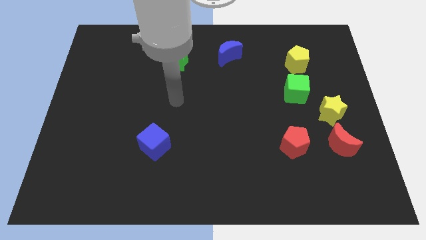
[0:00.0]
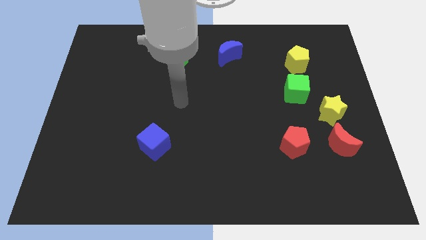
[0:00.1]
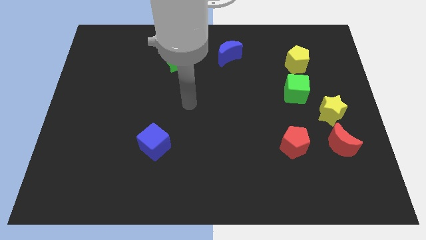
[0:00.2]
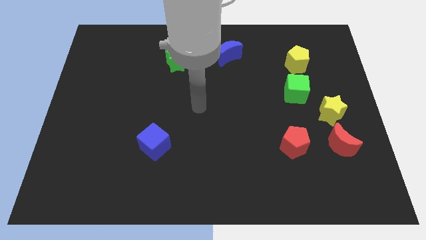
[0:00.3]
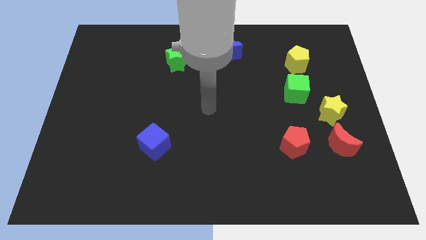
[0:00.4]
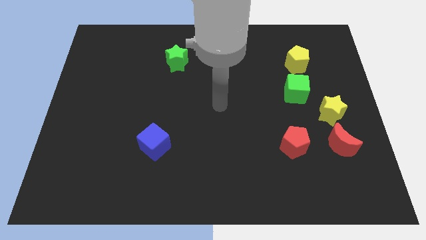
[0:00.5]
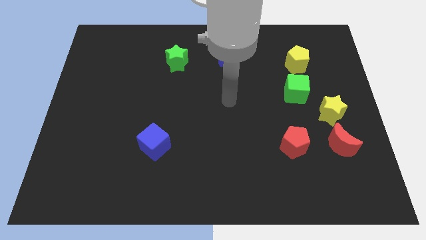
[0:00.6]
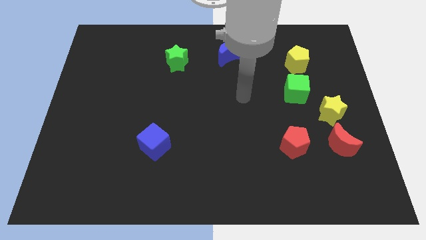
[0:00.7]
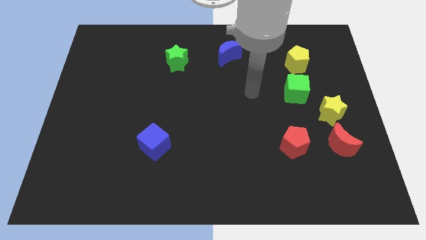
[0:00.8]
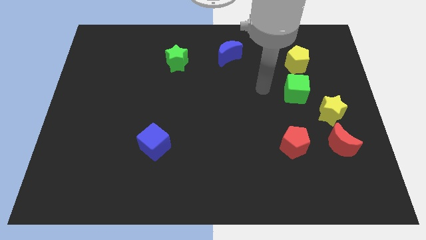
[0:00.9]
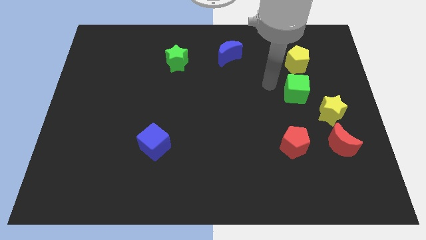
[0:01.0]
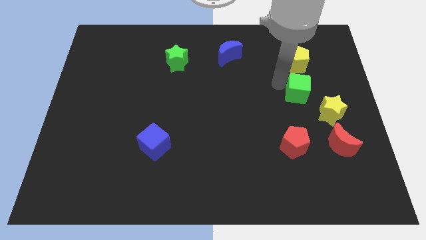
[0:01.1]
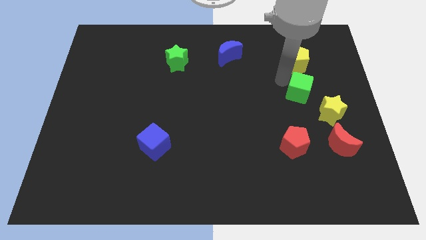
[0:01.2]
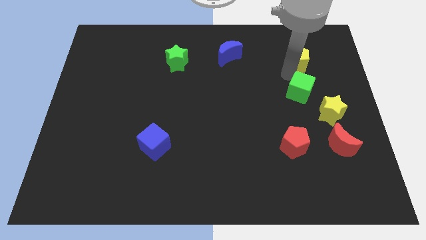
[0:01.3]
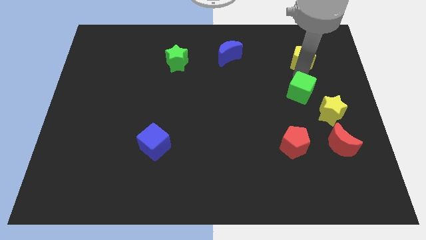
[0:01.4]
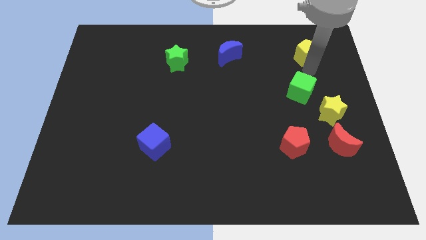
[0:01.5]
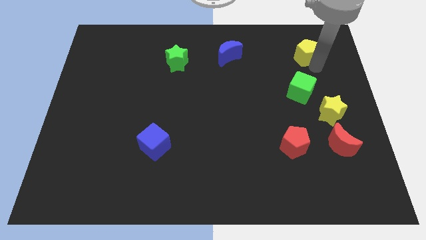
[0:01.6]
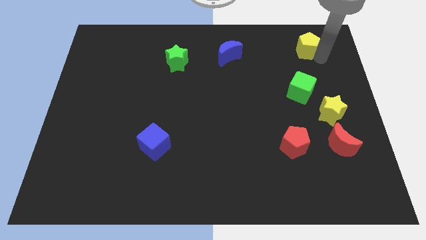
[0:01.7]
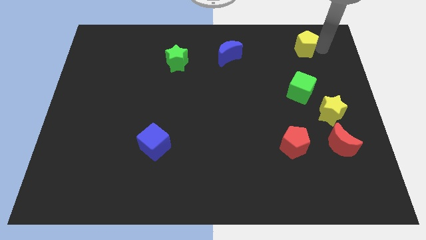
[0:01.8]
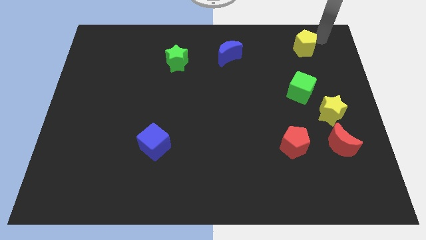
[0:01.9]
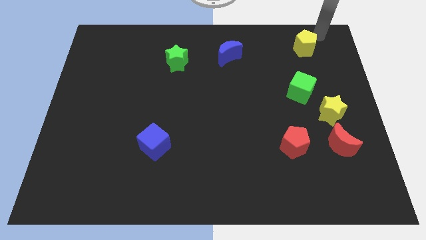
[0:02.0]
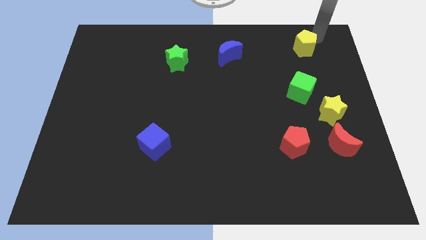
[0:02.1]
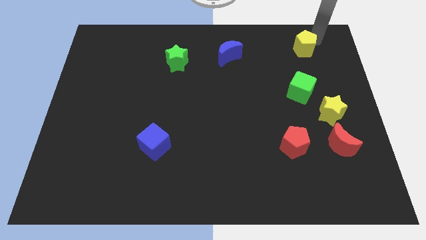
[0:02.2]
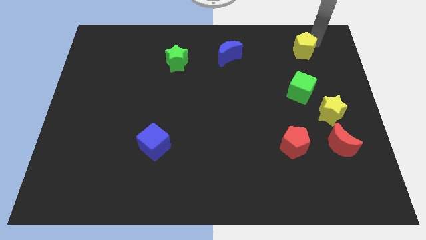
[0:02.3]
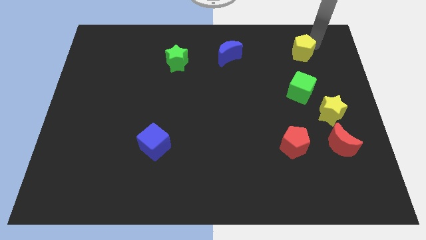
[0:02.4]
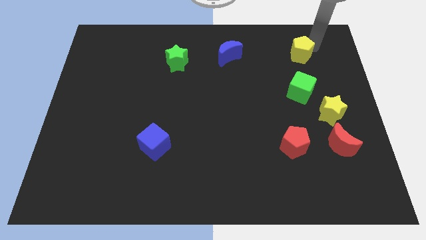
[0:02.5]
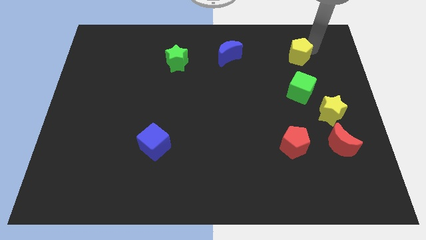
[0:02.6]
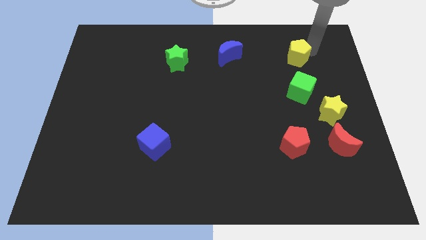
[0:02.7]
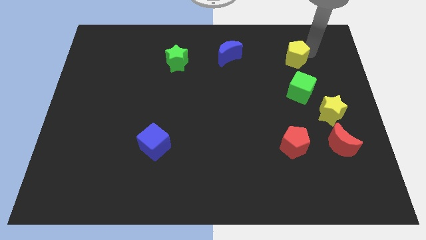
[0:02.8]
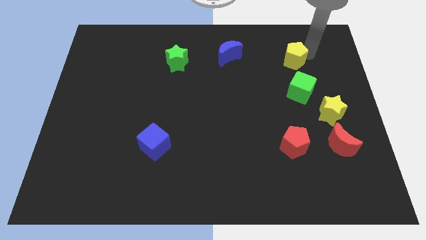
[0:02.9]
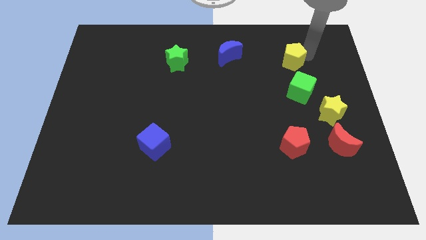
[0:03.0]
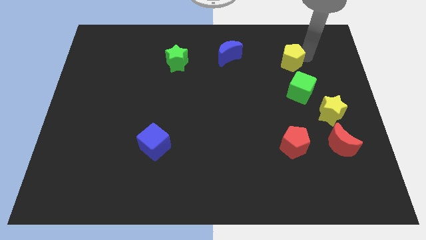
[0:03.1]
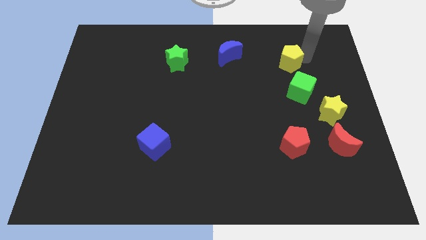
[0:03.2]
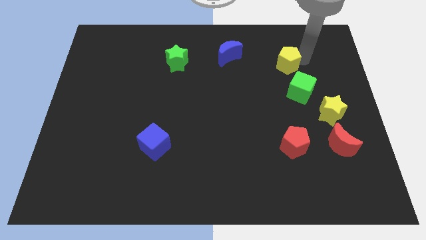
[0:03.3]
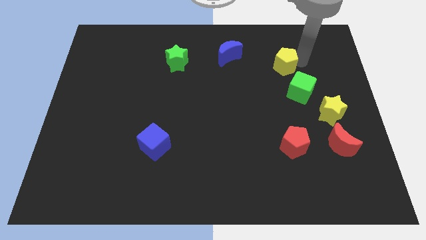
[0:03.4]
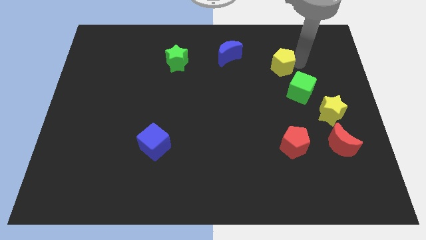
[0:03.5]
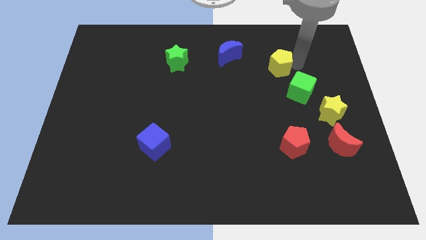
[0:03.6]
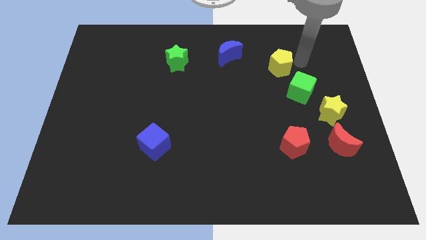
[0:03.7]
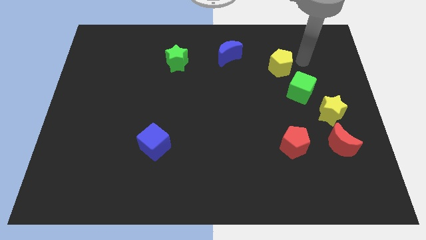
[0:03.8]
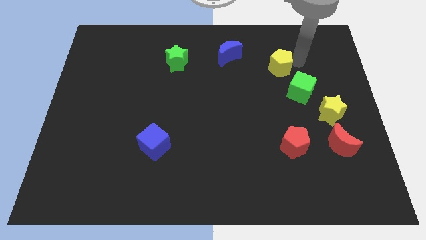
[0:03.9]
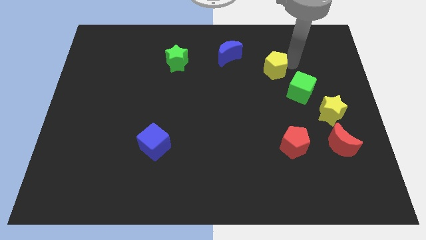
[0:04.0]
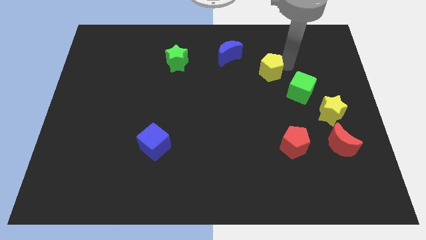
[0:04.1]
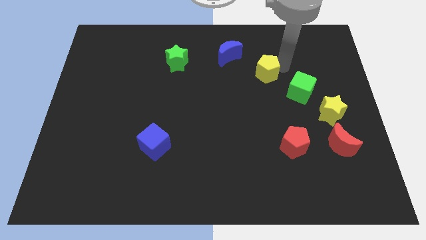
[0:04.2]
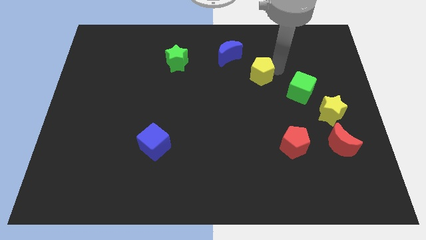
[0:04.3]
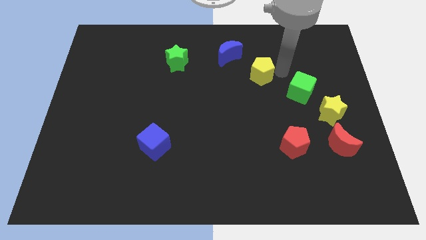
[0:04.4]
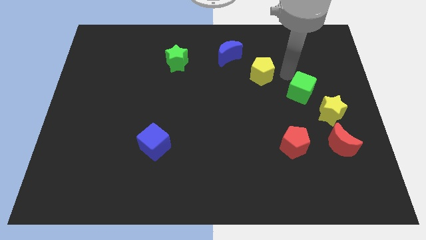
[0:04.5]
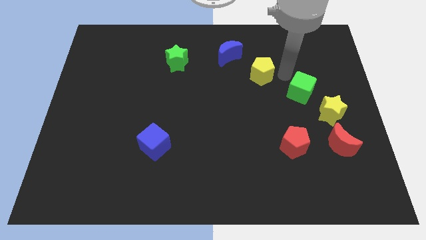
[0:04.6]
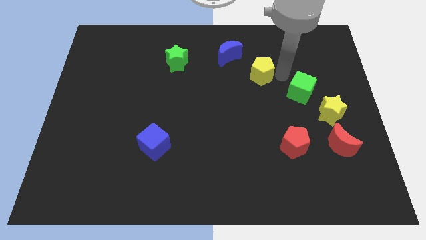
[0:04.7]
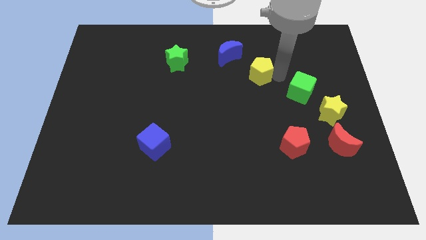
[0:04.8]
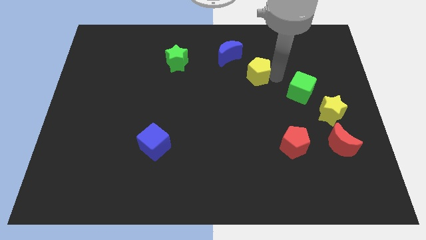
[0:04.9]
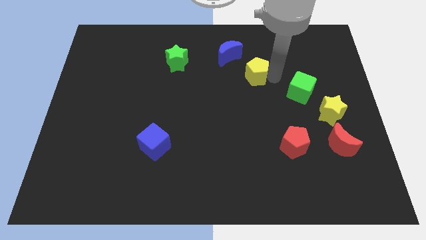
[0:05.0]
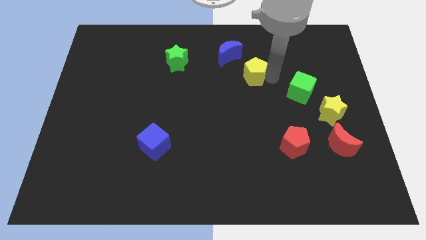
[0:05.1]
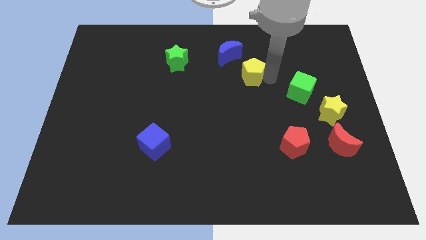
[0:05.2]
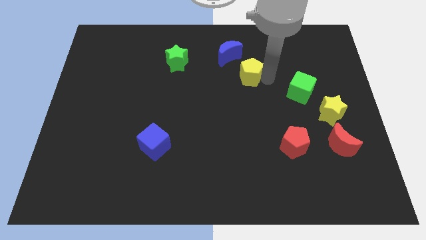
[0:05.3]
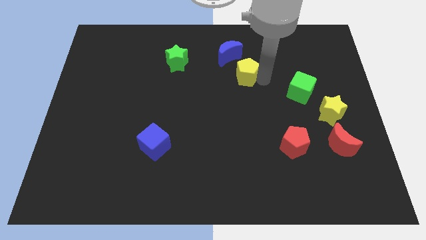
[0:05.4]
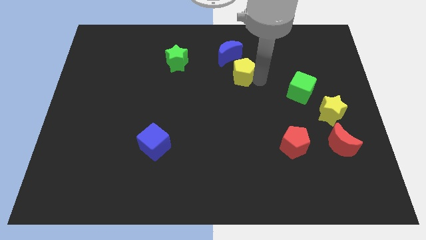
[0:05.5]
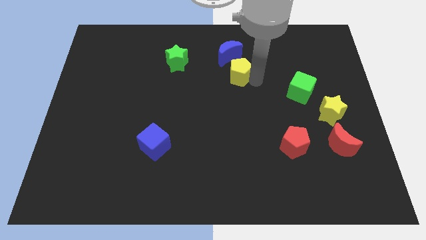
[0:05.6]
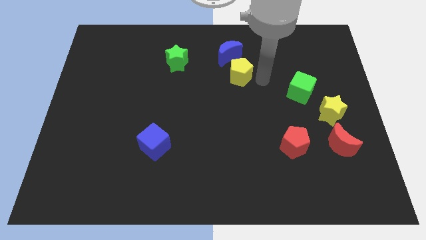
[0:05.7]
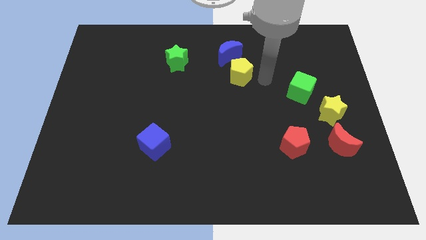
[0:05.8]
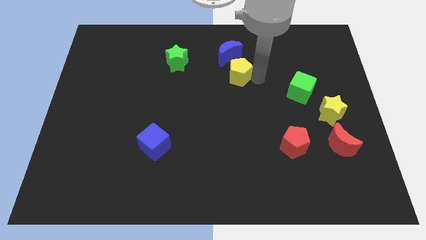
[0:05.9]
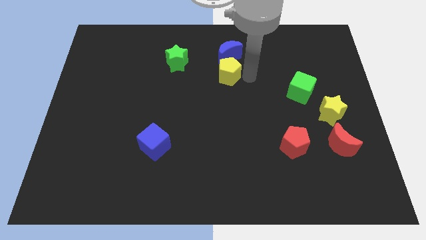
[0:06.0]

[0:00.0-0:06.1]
slide the yellow pentagon to the bottom left side of the blue moon

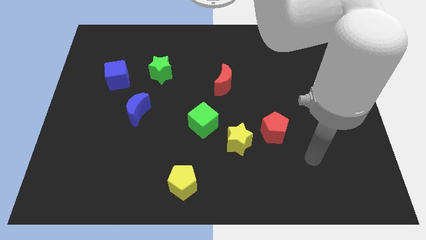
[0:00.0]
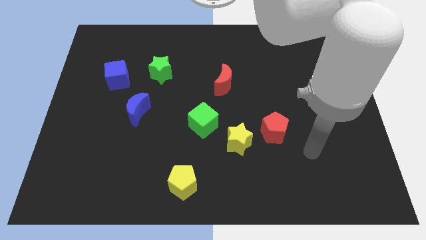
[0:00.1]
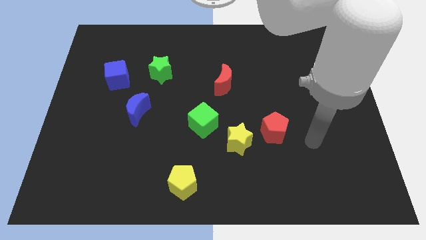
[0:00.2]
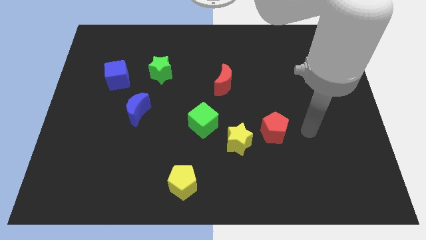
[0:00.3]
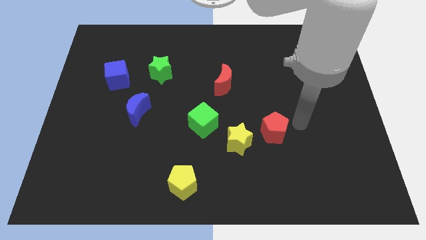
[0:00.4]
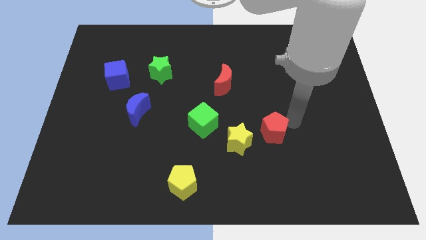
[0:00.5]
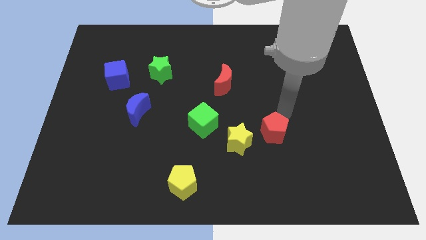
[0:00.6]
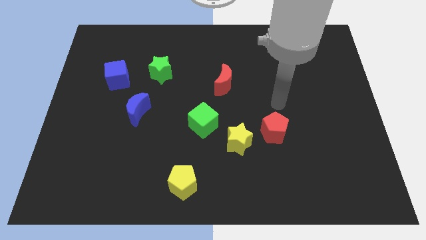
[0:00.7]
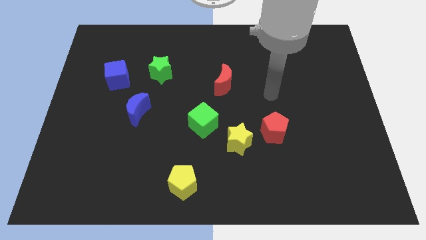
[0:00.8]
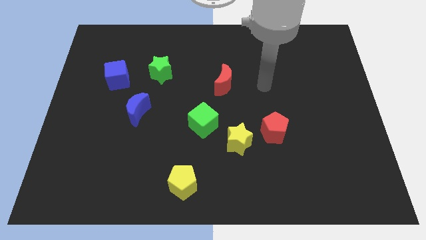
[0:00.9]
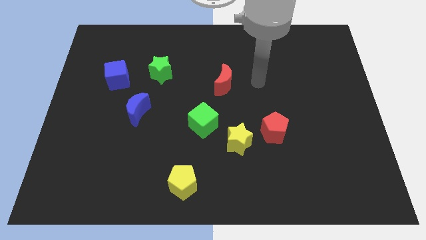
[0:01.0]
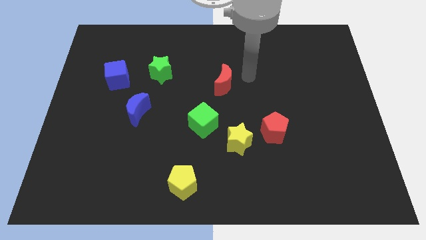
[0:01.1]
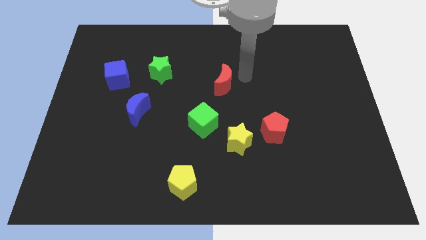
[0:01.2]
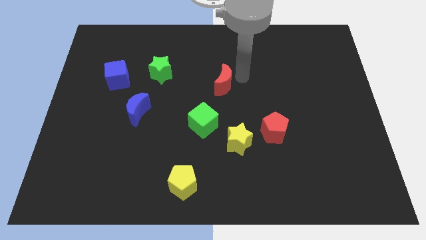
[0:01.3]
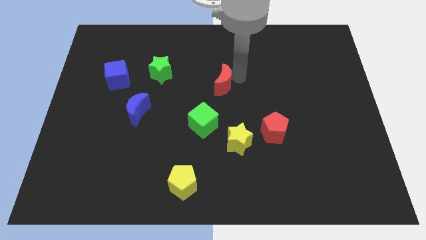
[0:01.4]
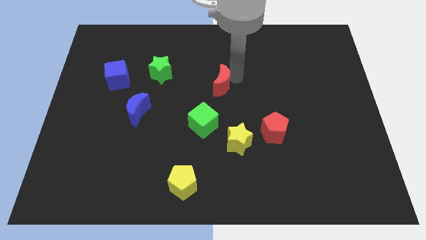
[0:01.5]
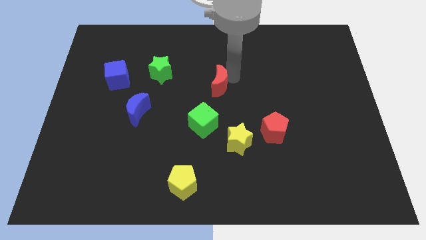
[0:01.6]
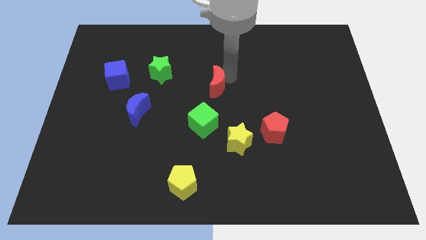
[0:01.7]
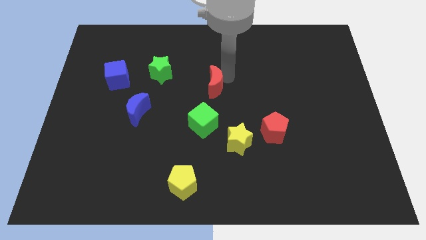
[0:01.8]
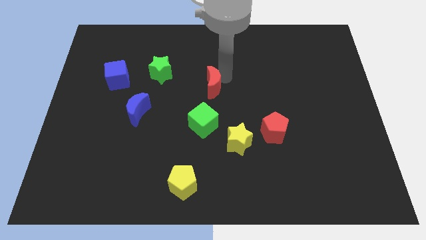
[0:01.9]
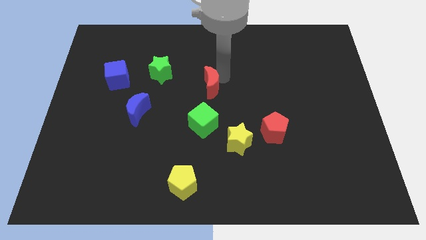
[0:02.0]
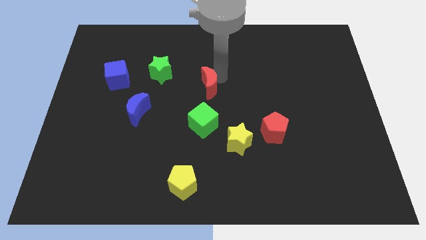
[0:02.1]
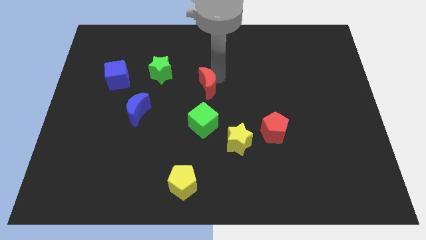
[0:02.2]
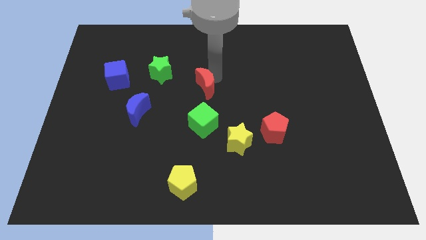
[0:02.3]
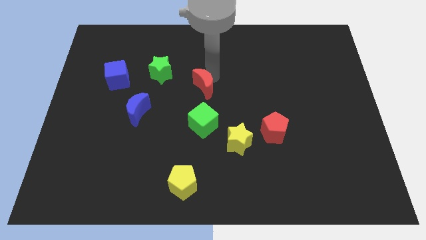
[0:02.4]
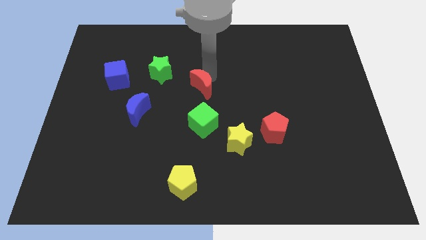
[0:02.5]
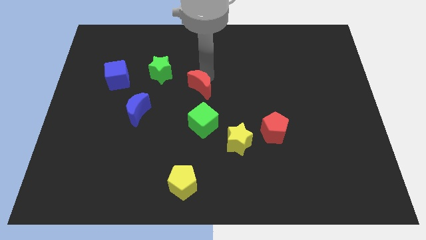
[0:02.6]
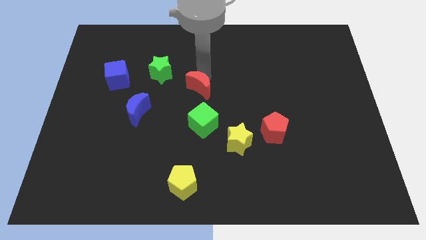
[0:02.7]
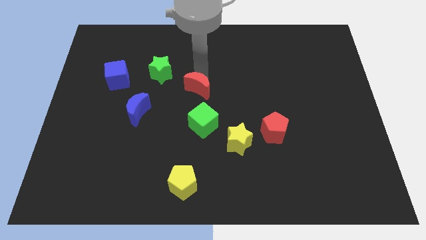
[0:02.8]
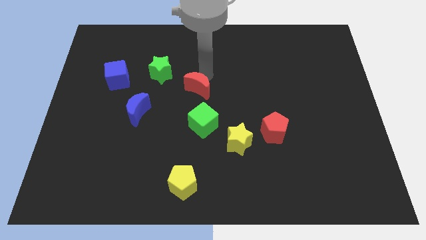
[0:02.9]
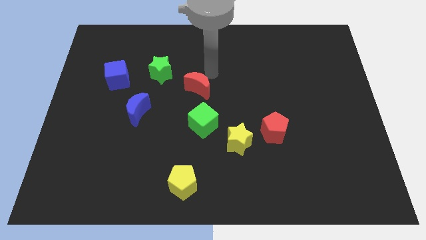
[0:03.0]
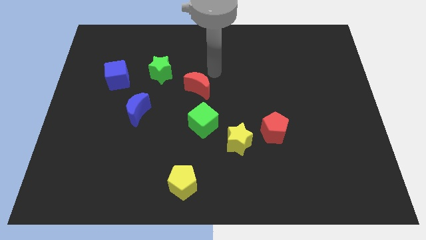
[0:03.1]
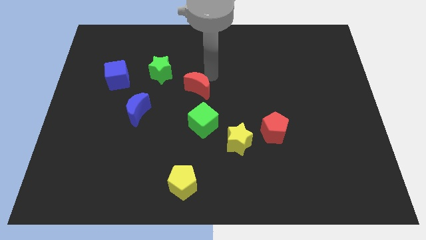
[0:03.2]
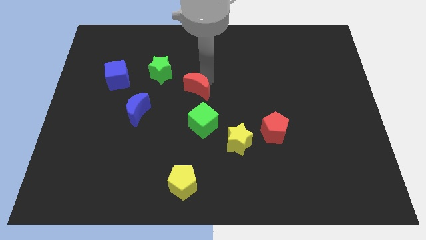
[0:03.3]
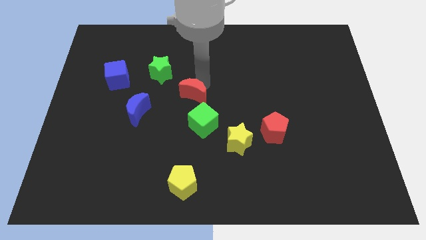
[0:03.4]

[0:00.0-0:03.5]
push the red moon to the top left of the green cube
